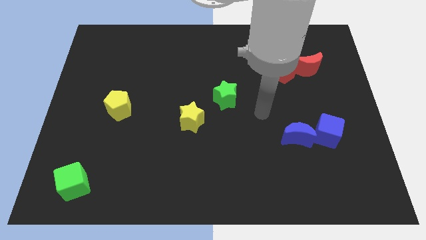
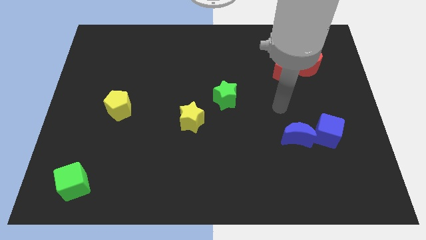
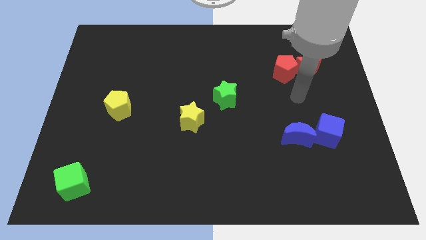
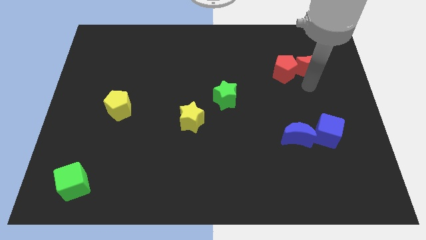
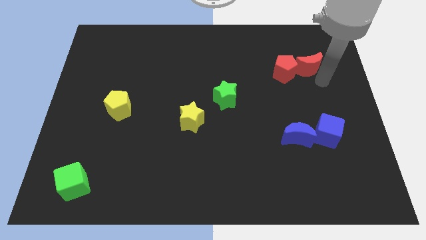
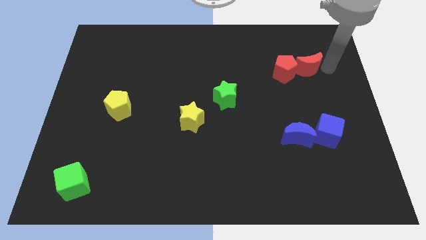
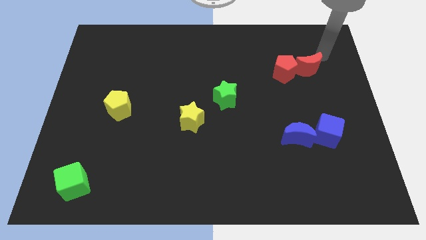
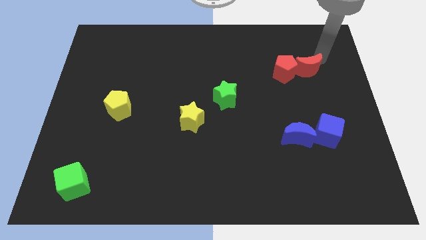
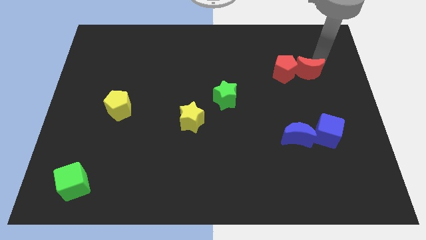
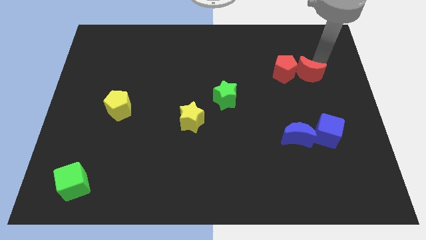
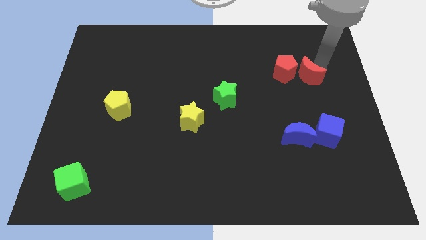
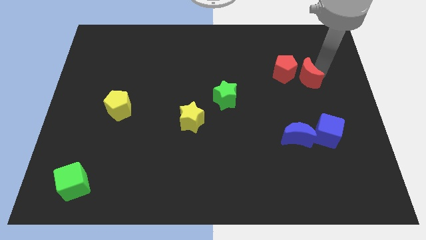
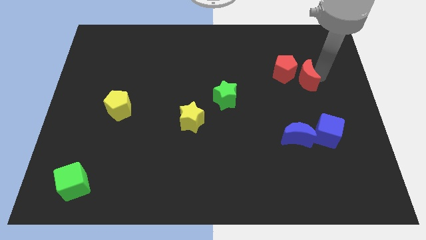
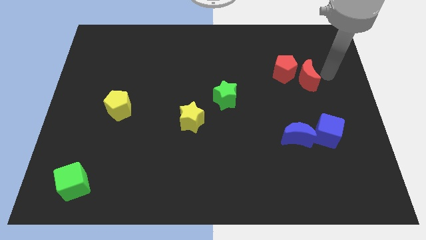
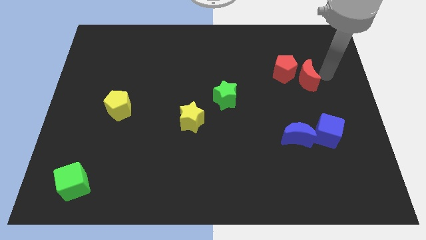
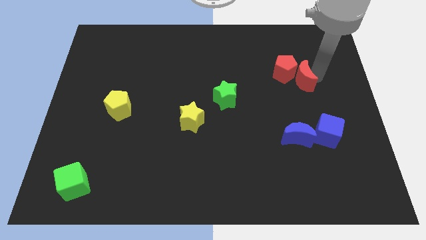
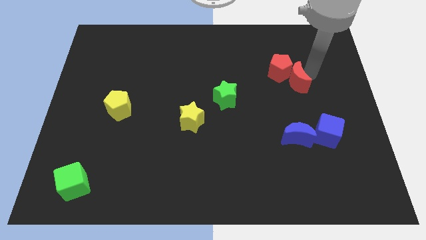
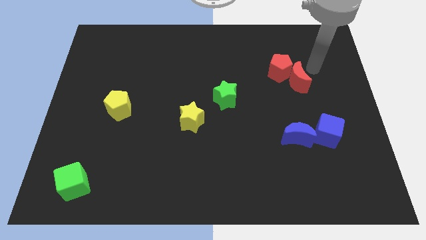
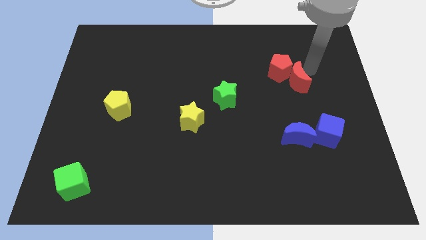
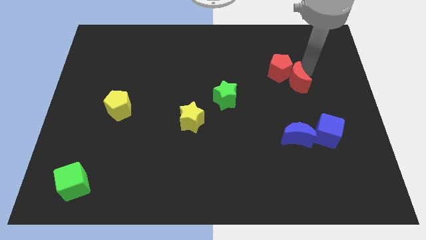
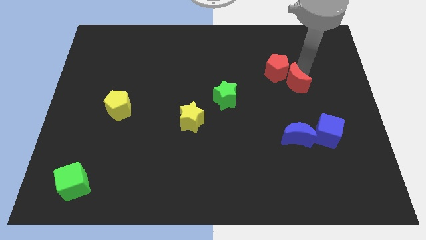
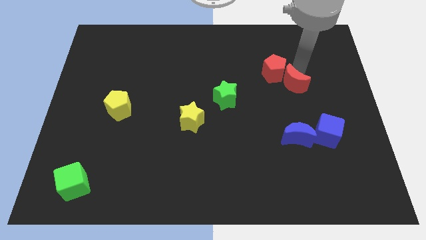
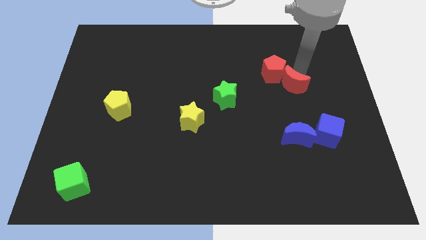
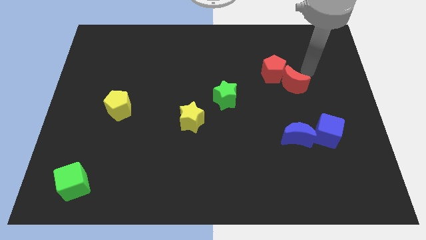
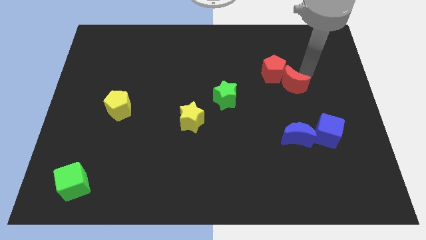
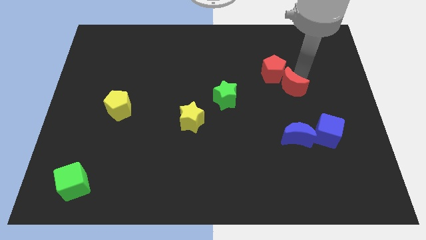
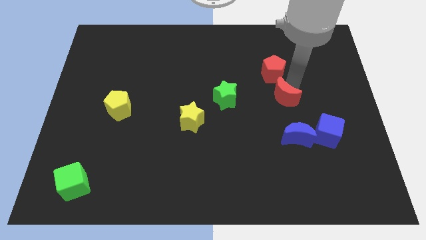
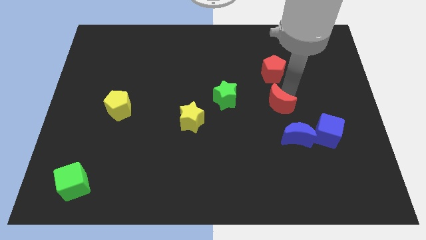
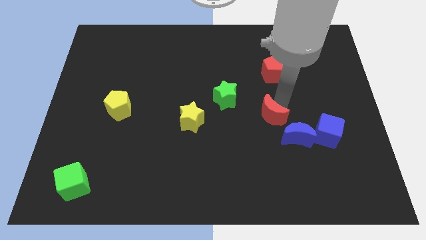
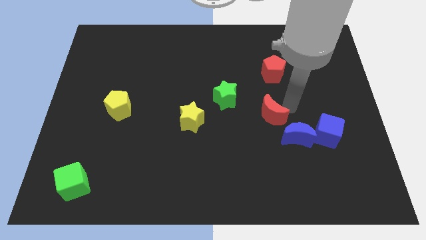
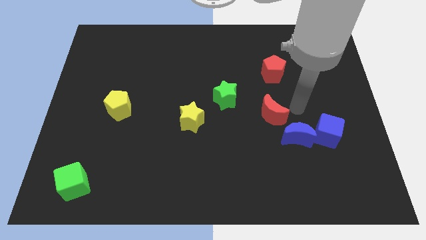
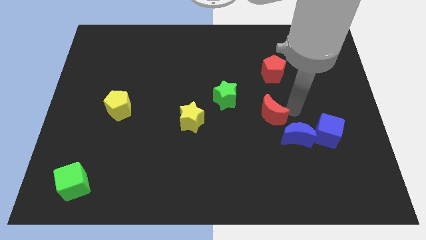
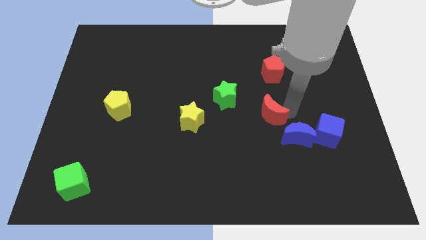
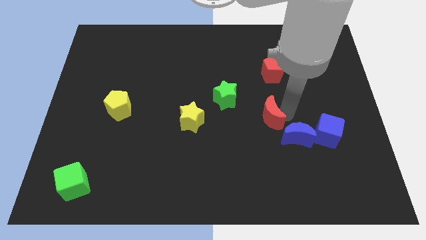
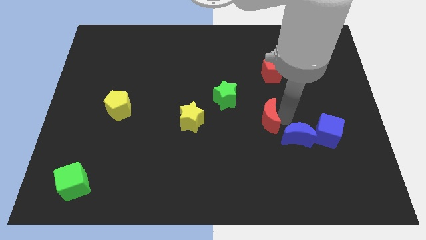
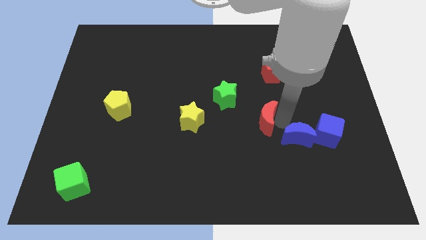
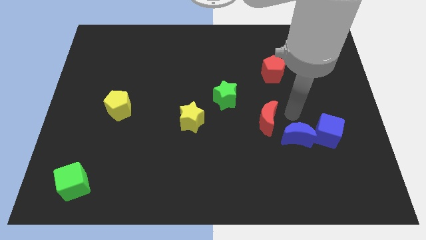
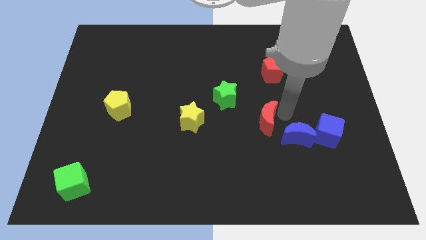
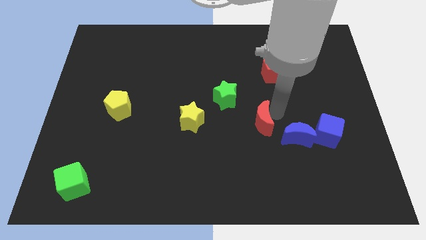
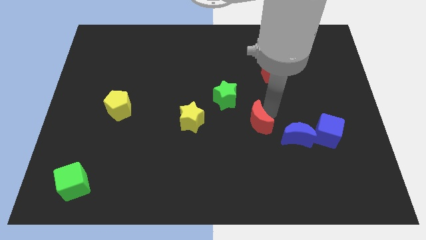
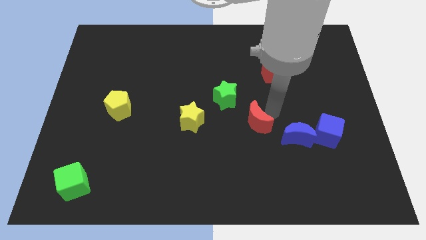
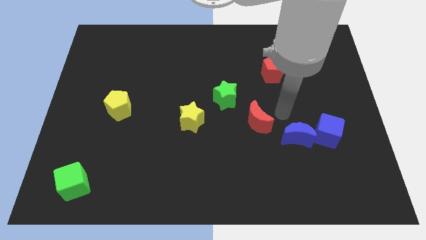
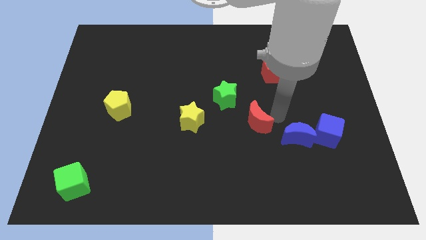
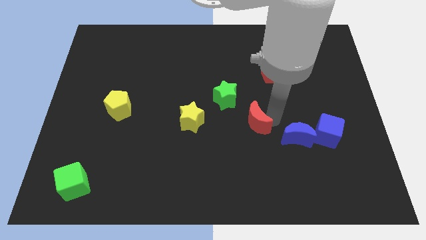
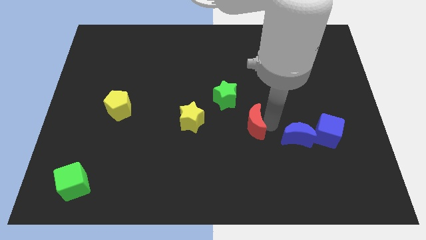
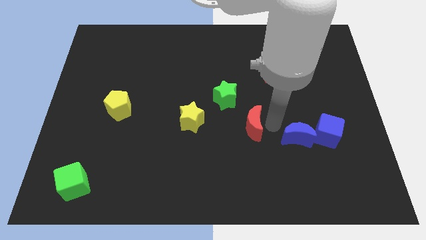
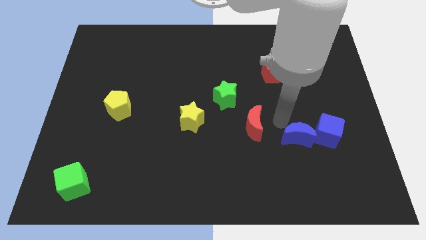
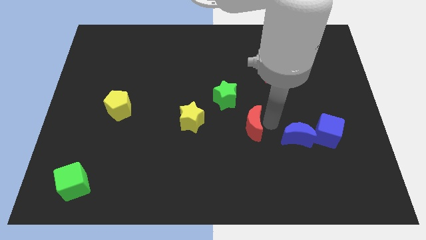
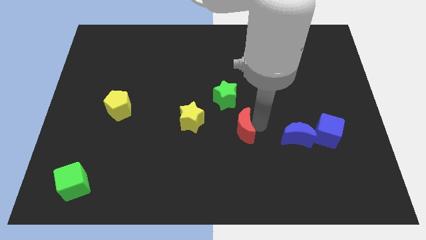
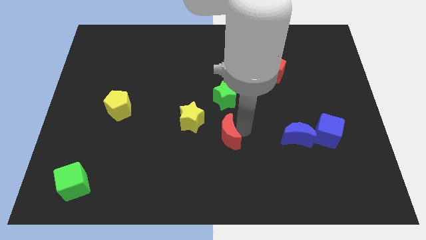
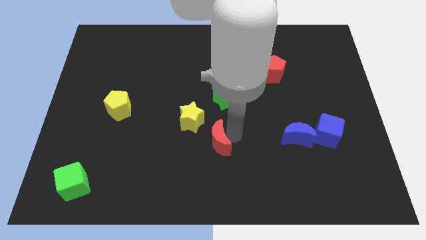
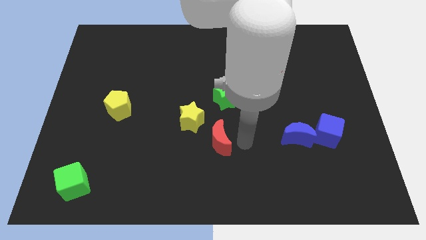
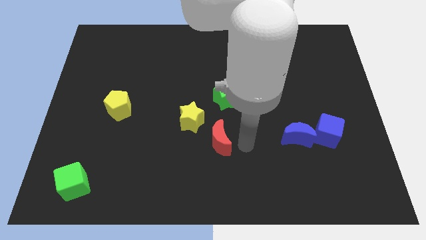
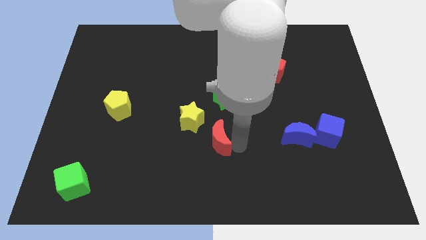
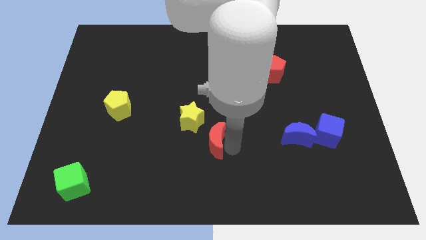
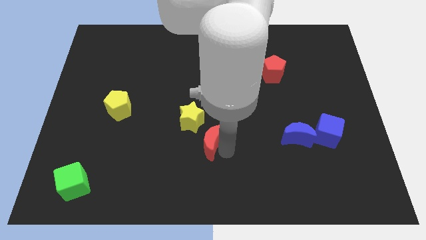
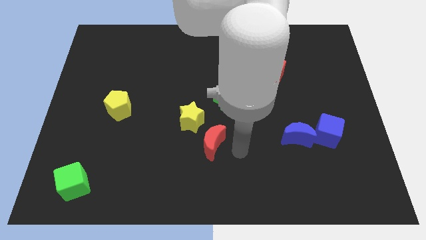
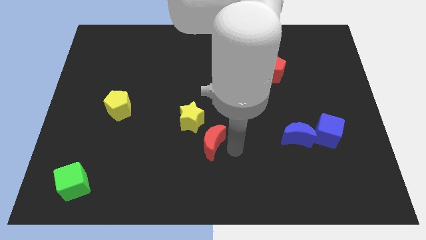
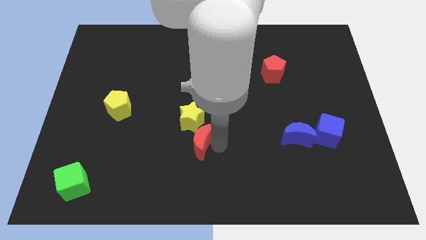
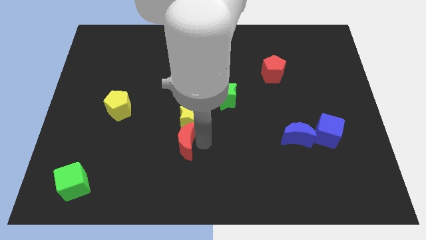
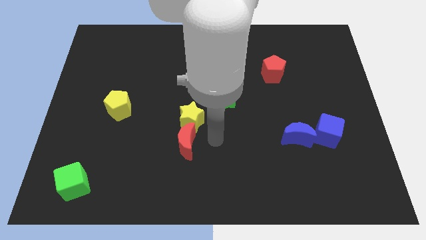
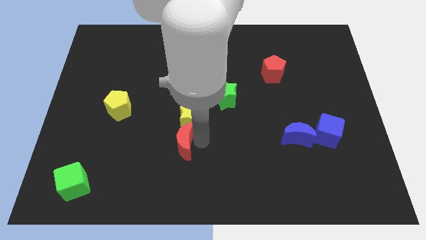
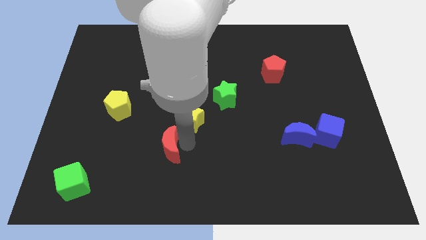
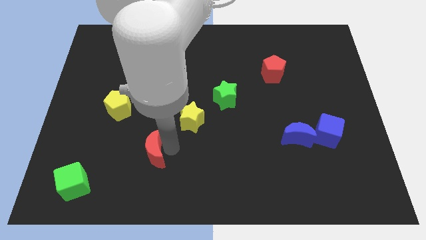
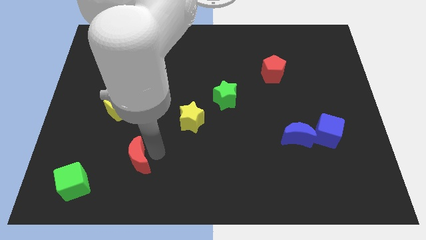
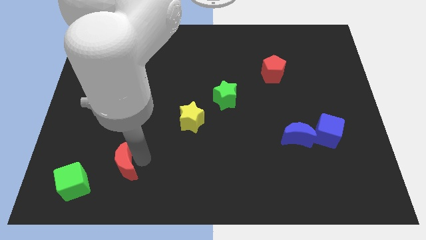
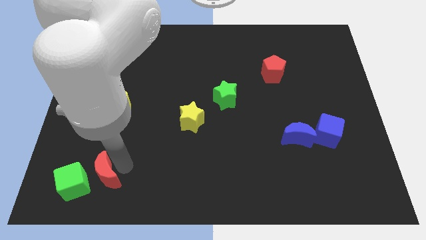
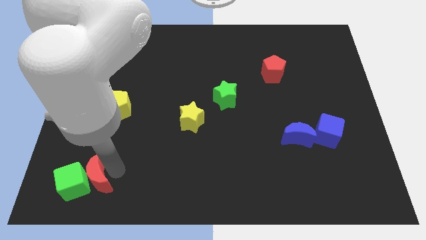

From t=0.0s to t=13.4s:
slide the red moon to the green cube
